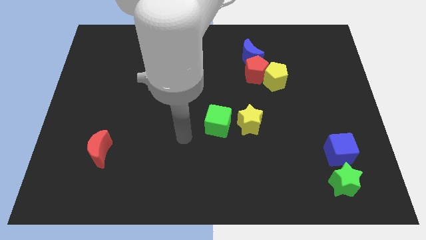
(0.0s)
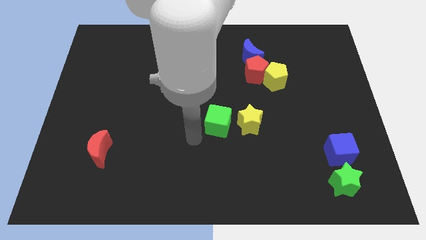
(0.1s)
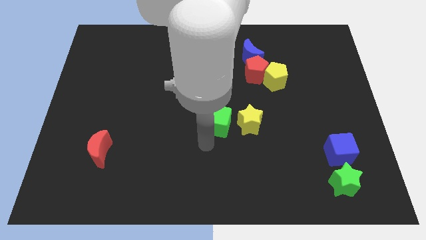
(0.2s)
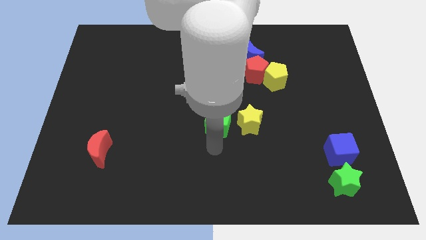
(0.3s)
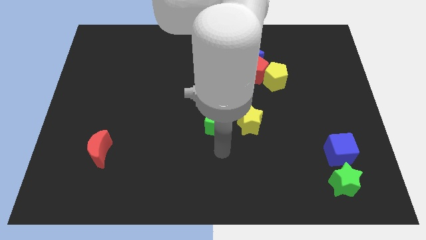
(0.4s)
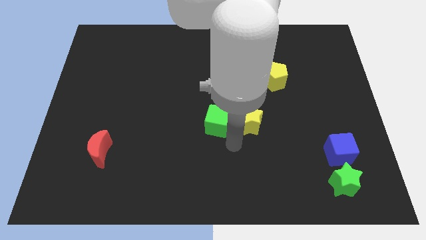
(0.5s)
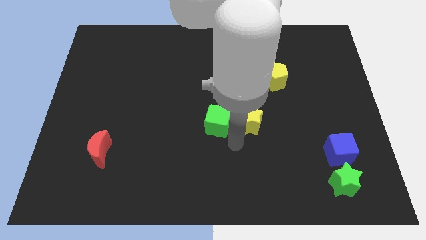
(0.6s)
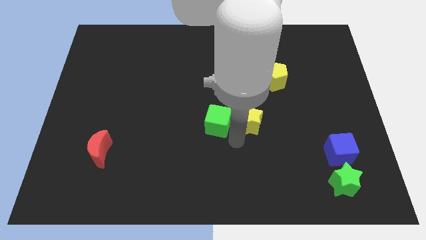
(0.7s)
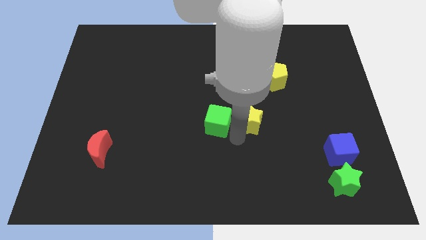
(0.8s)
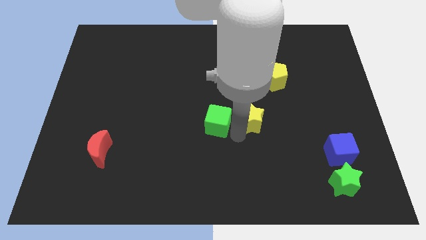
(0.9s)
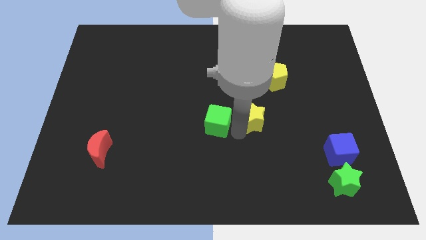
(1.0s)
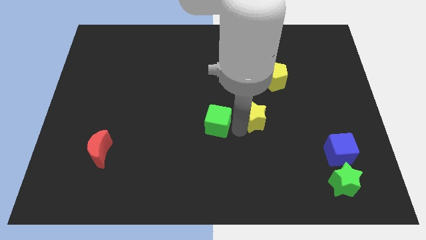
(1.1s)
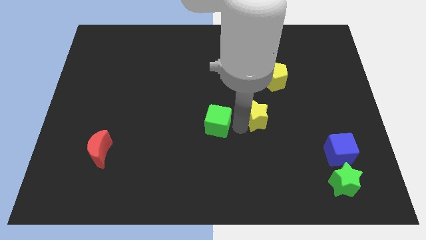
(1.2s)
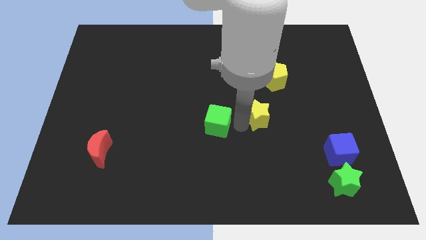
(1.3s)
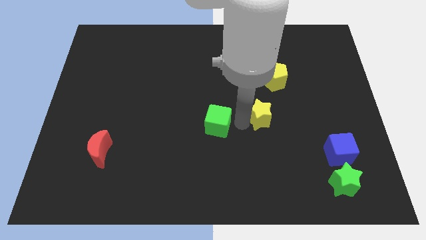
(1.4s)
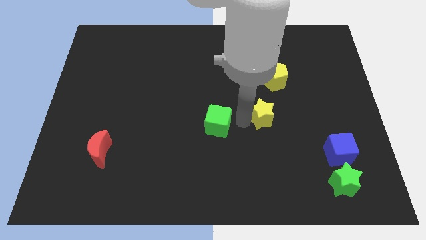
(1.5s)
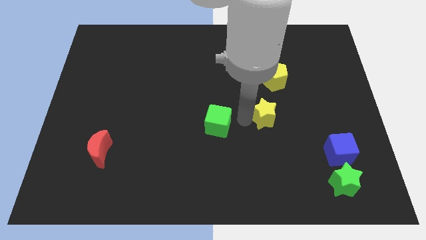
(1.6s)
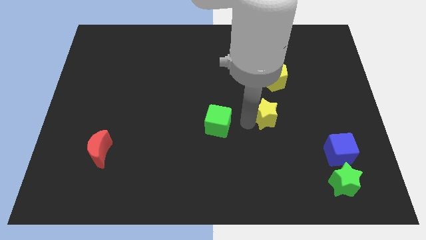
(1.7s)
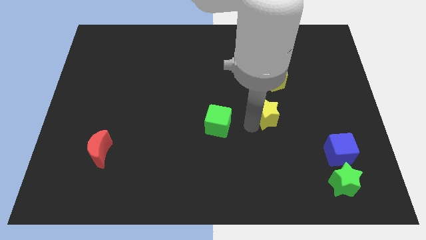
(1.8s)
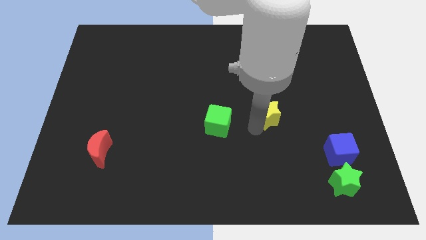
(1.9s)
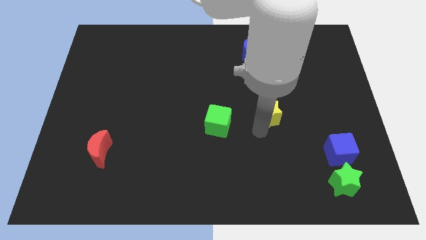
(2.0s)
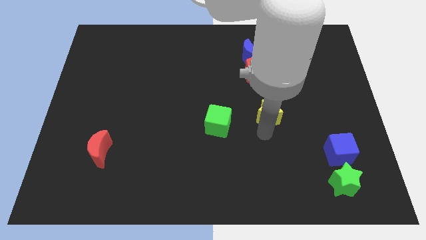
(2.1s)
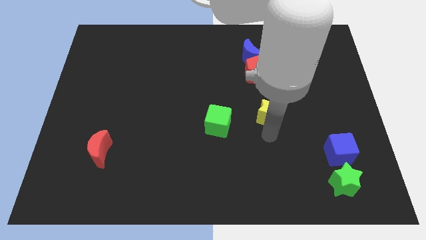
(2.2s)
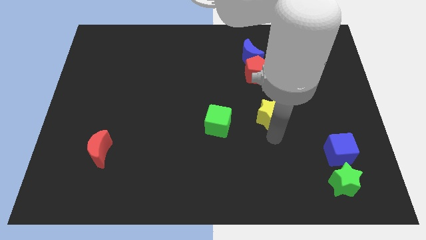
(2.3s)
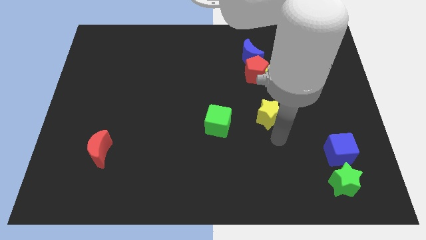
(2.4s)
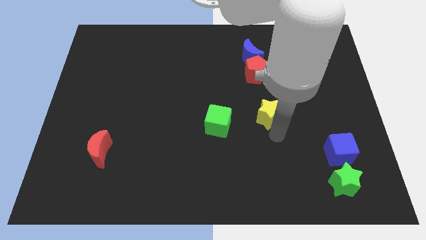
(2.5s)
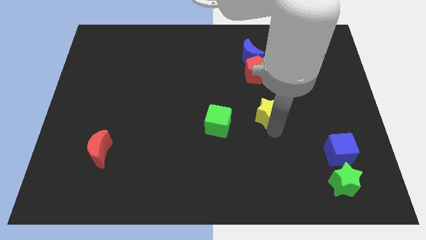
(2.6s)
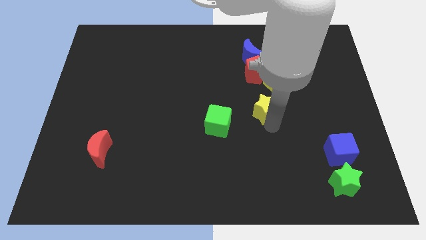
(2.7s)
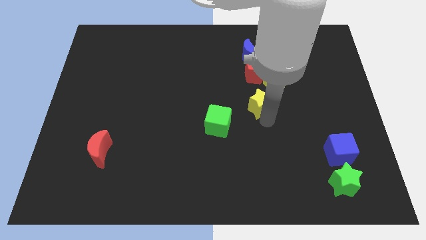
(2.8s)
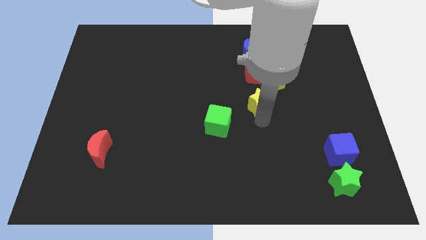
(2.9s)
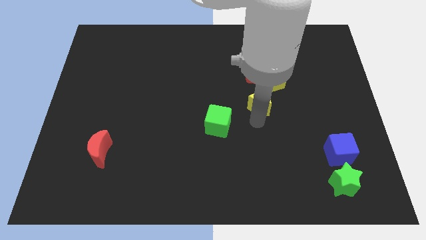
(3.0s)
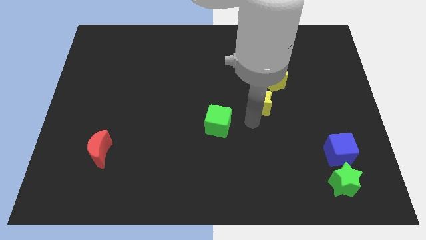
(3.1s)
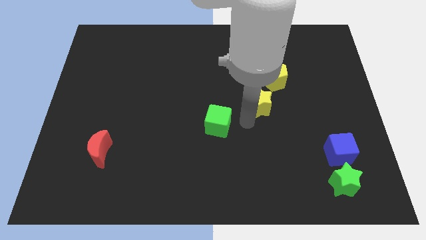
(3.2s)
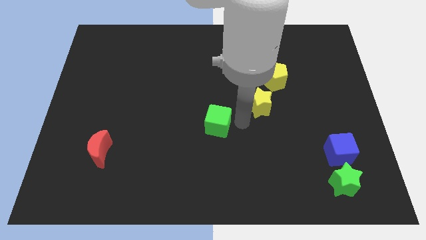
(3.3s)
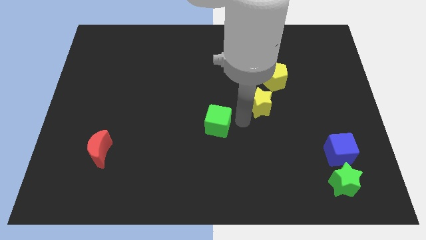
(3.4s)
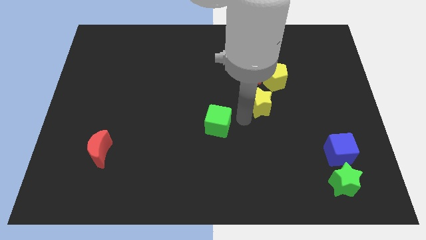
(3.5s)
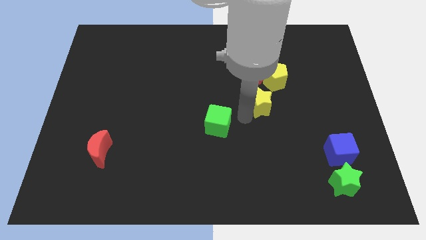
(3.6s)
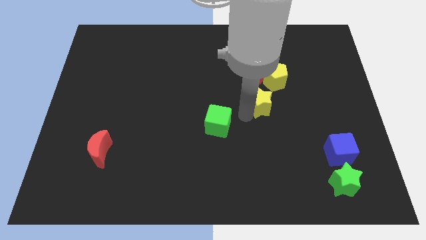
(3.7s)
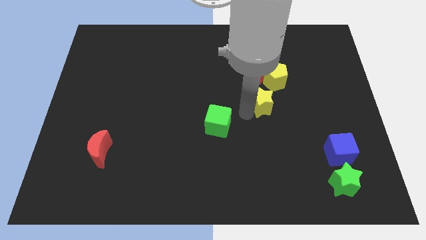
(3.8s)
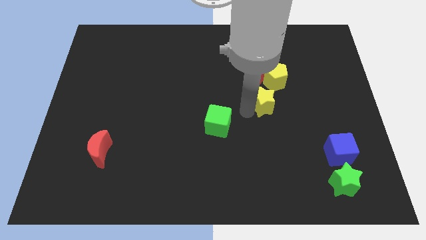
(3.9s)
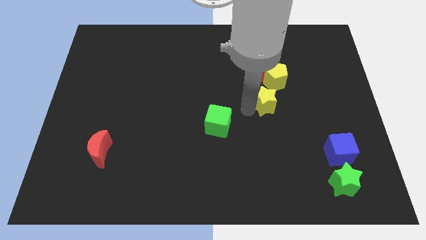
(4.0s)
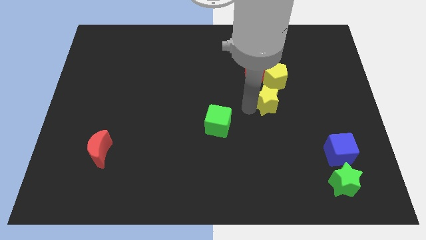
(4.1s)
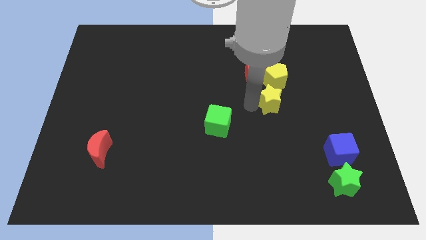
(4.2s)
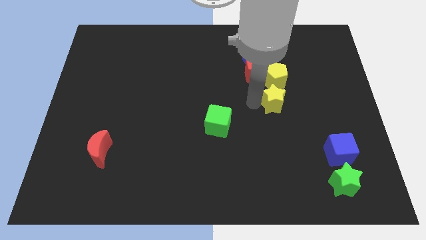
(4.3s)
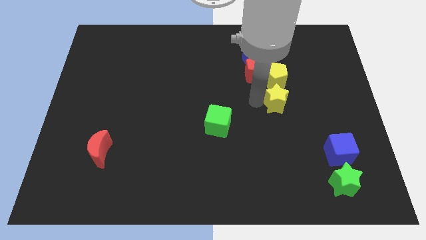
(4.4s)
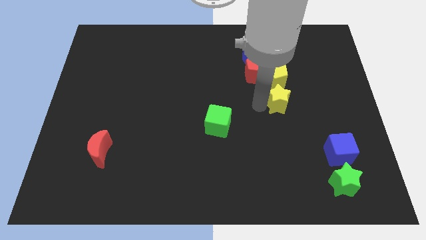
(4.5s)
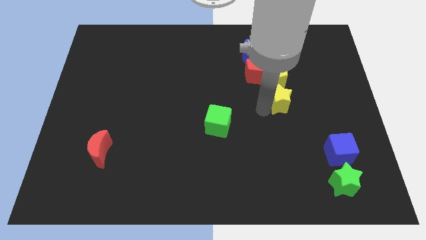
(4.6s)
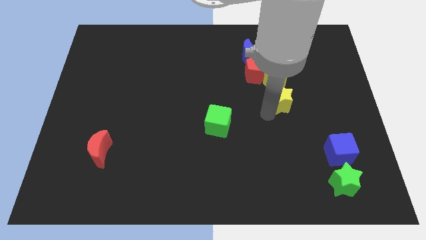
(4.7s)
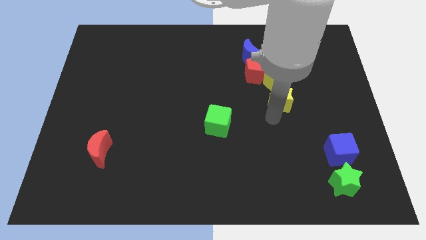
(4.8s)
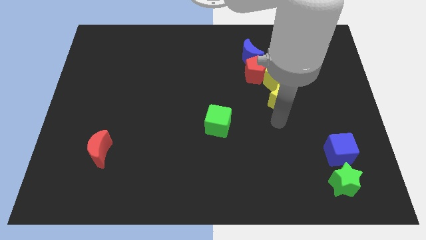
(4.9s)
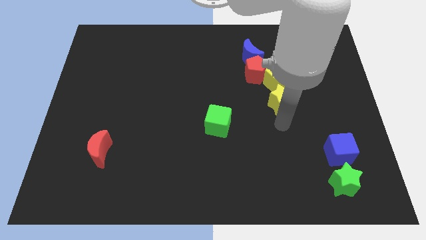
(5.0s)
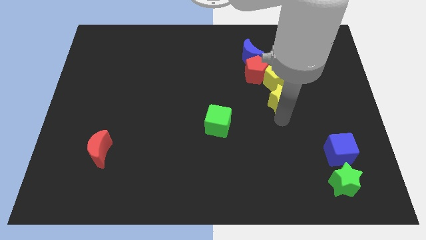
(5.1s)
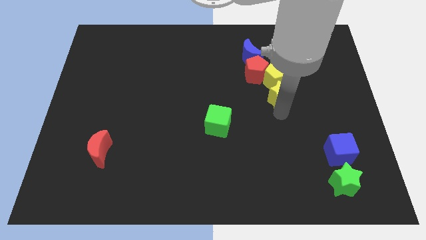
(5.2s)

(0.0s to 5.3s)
put the yellow star towards the yellow pentagon

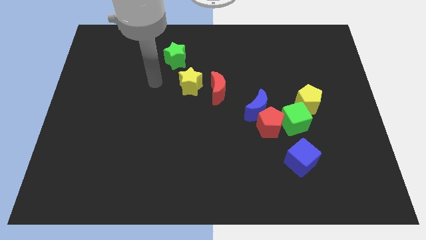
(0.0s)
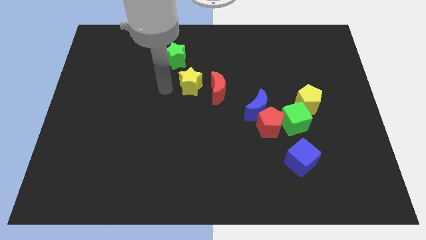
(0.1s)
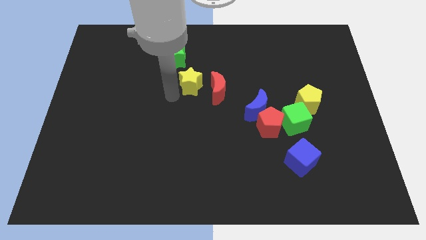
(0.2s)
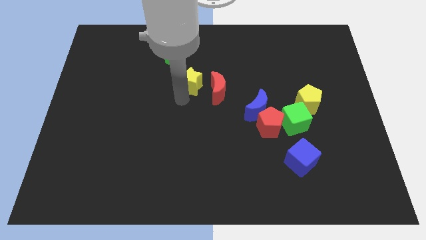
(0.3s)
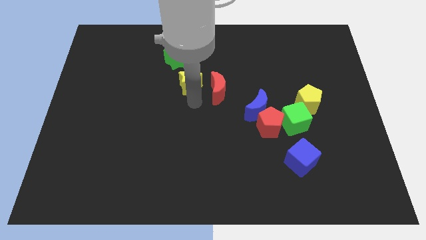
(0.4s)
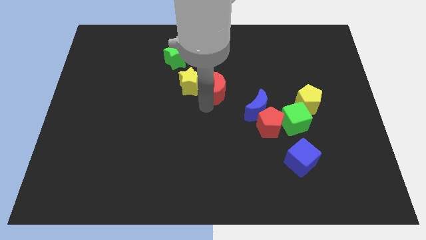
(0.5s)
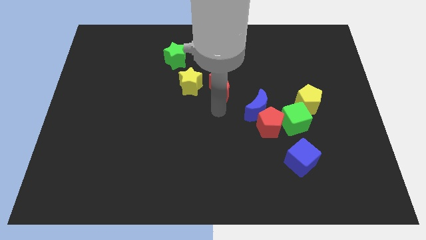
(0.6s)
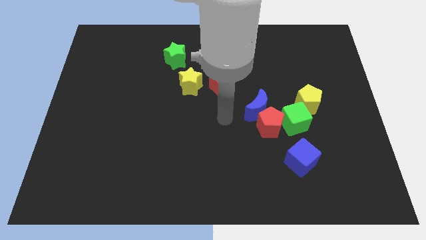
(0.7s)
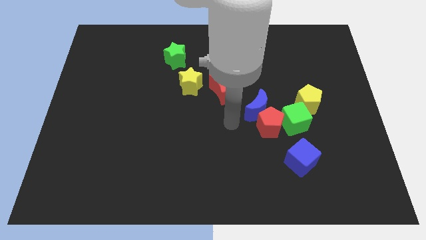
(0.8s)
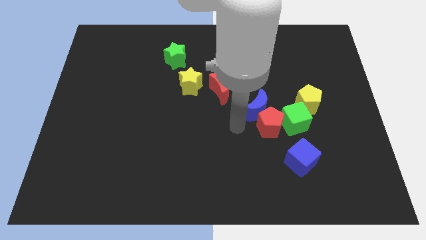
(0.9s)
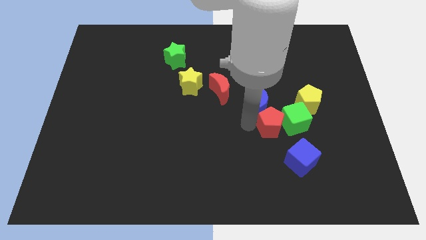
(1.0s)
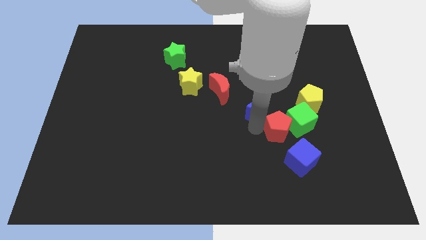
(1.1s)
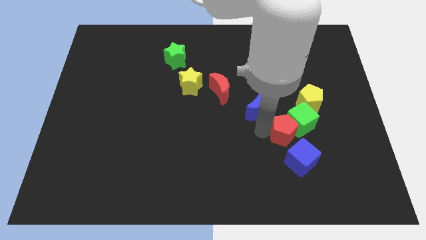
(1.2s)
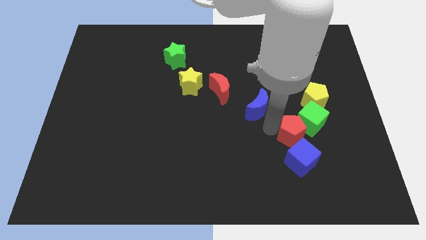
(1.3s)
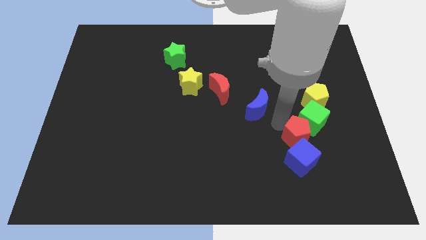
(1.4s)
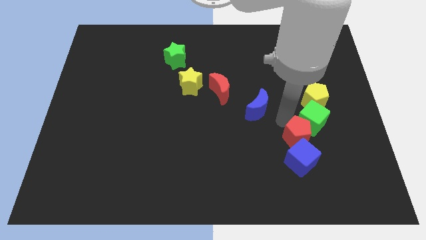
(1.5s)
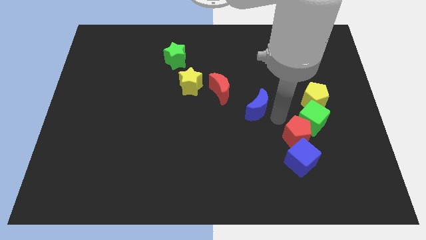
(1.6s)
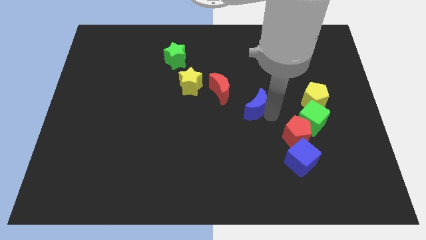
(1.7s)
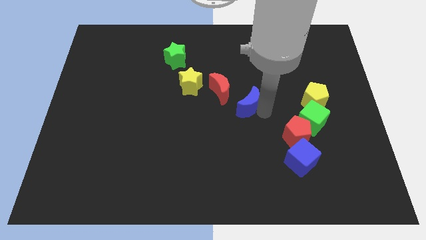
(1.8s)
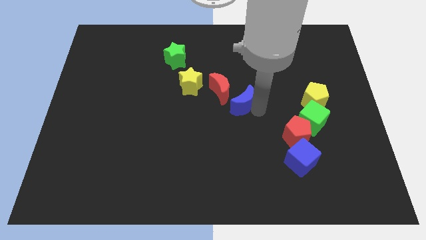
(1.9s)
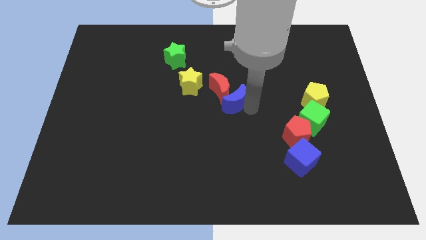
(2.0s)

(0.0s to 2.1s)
push the blue moon next to the red moon

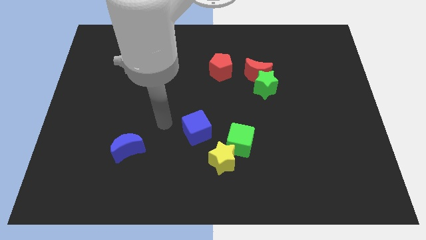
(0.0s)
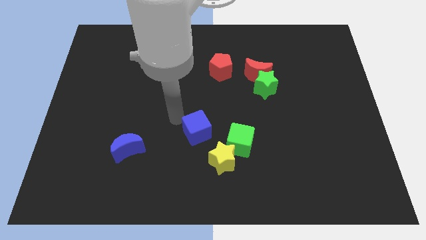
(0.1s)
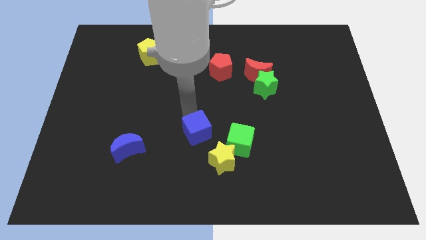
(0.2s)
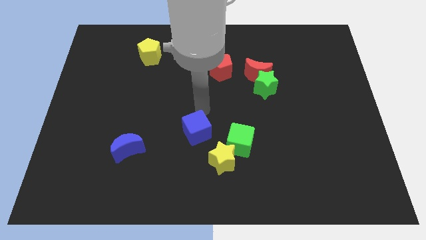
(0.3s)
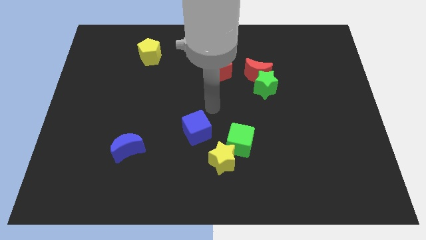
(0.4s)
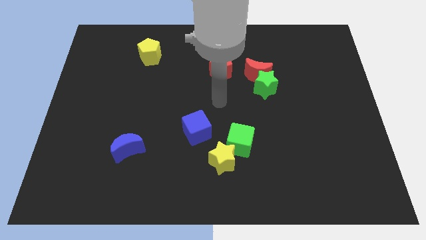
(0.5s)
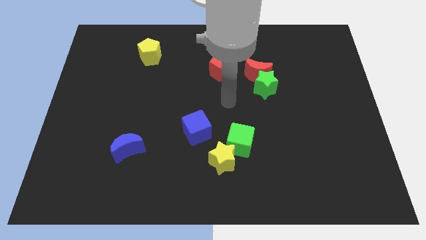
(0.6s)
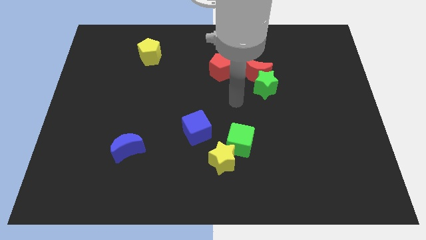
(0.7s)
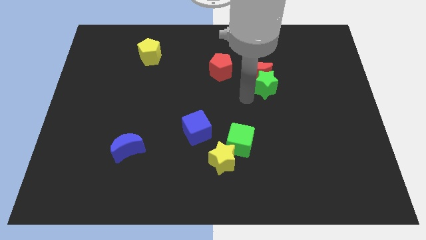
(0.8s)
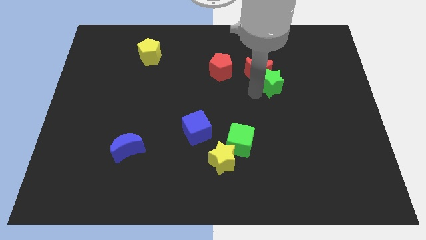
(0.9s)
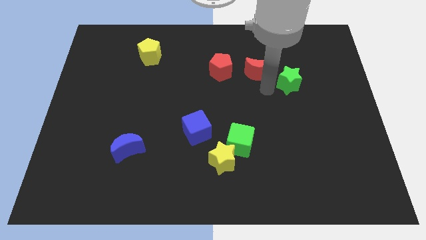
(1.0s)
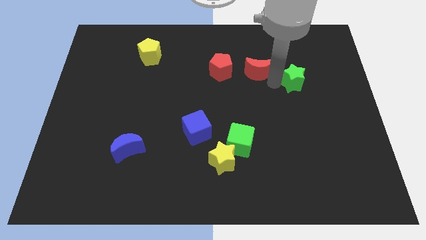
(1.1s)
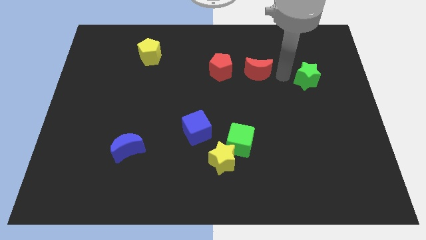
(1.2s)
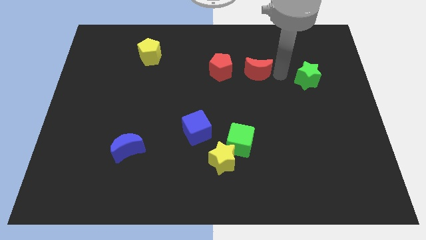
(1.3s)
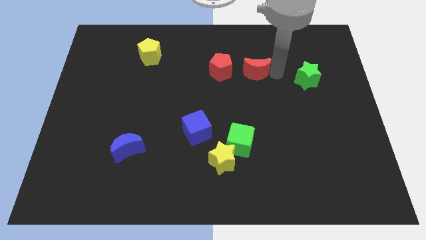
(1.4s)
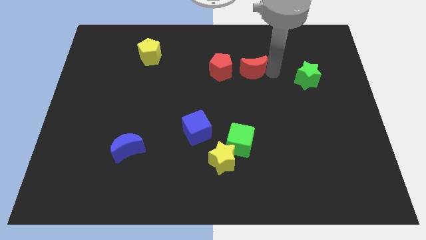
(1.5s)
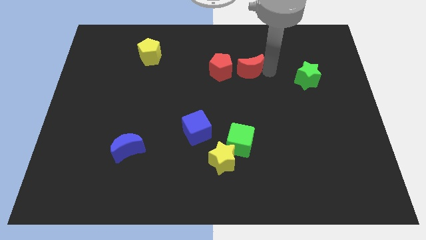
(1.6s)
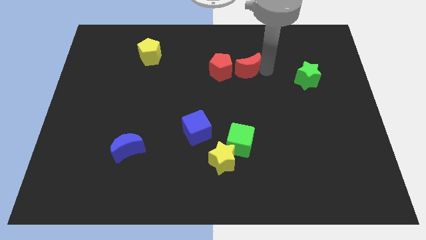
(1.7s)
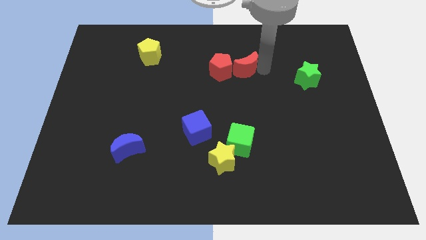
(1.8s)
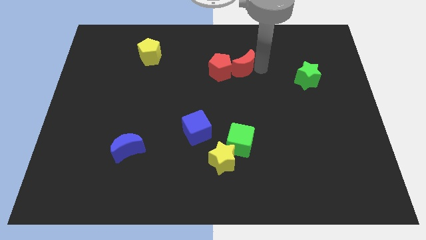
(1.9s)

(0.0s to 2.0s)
put the red moon towards the red pentagon
